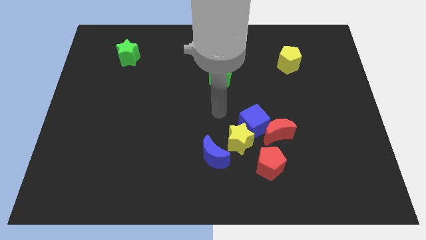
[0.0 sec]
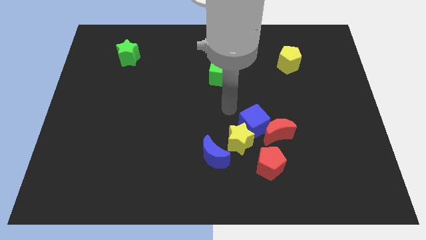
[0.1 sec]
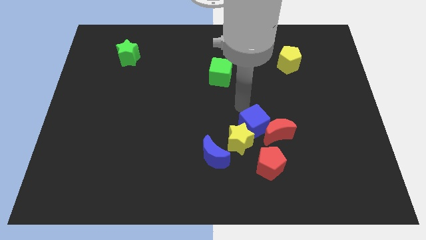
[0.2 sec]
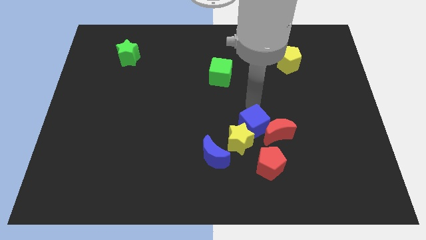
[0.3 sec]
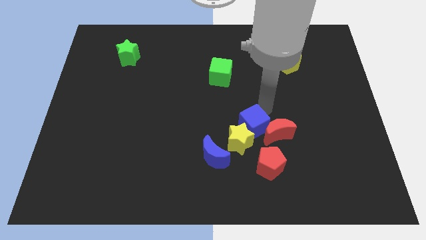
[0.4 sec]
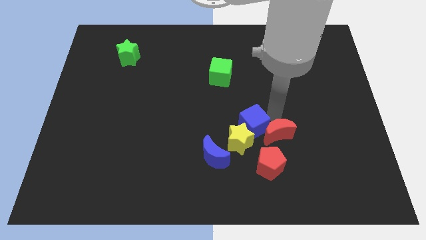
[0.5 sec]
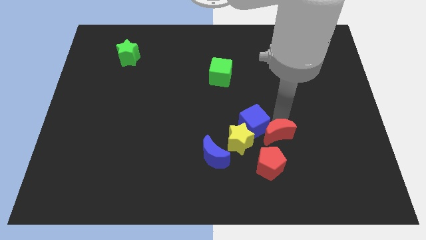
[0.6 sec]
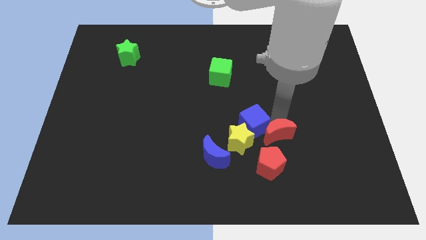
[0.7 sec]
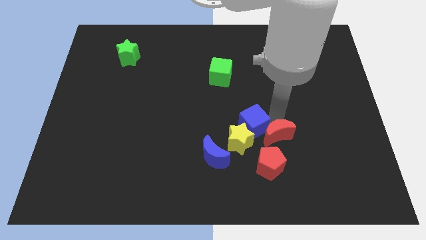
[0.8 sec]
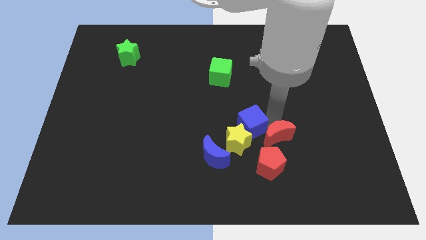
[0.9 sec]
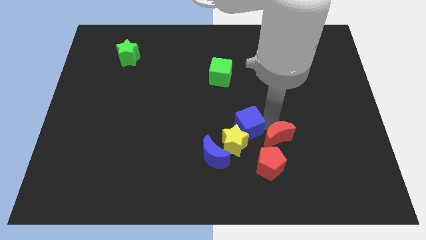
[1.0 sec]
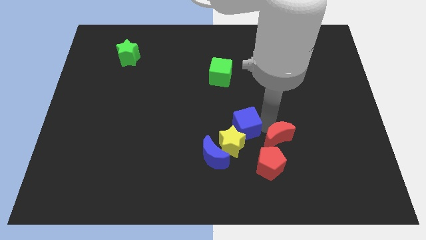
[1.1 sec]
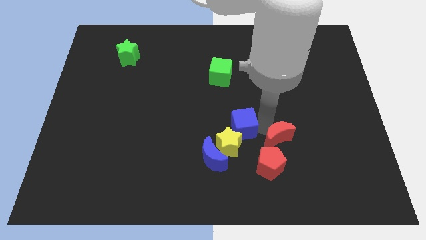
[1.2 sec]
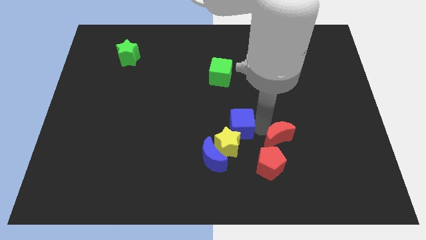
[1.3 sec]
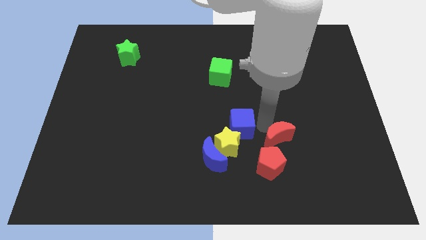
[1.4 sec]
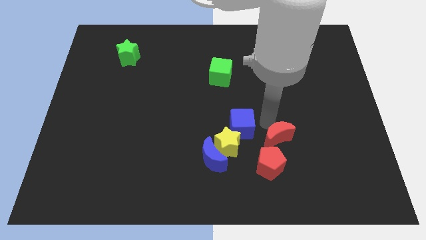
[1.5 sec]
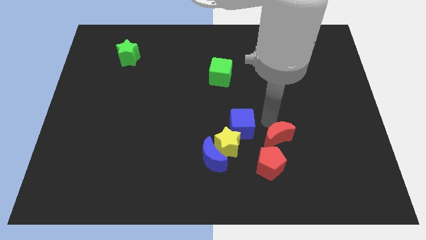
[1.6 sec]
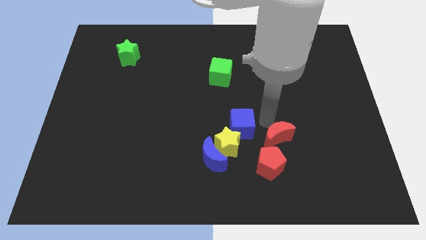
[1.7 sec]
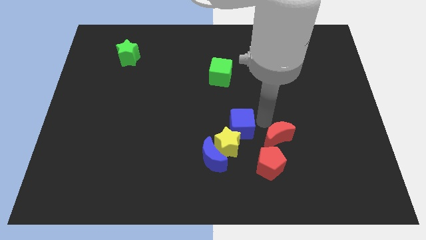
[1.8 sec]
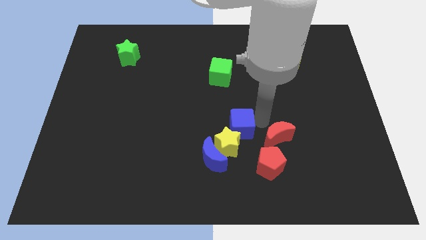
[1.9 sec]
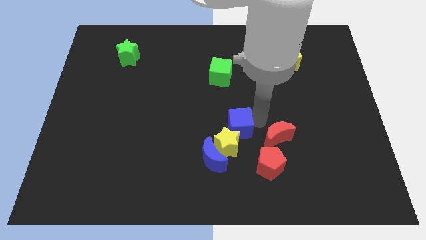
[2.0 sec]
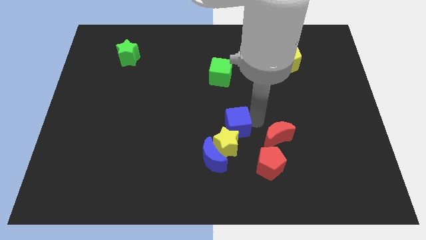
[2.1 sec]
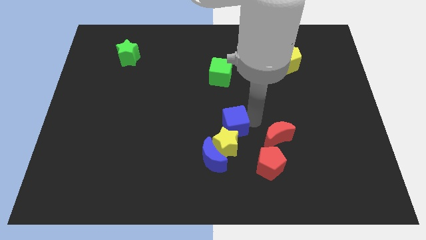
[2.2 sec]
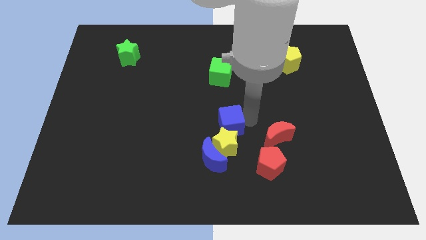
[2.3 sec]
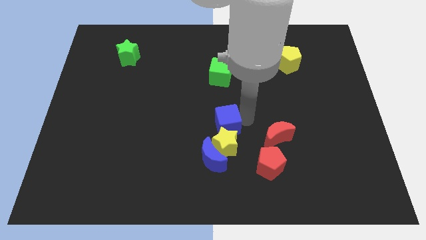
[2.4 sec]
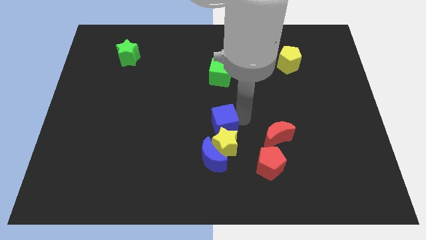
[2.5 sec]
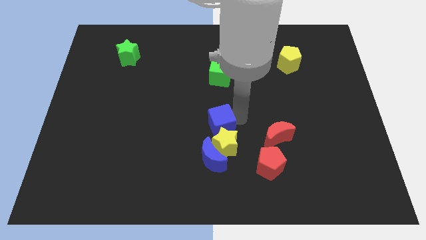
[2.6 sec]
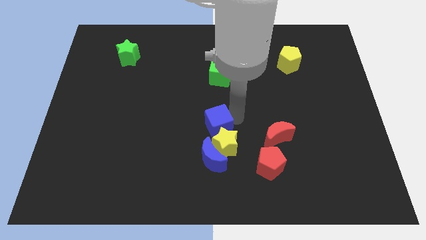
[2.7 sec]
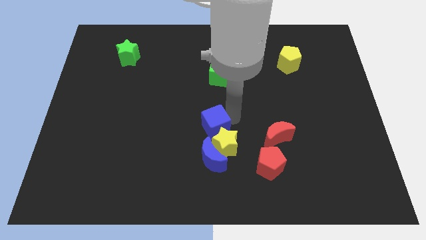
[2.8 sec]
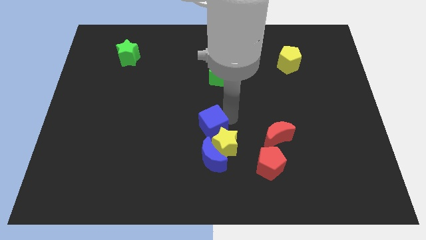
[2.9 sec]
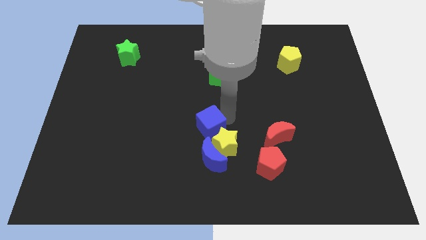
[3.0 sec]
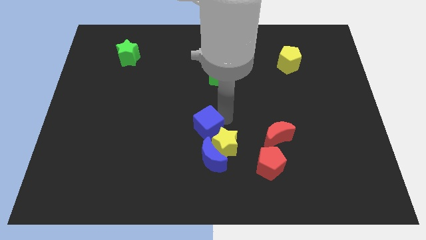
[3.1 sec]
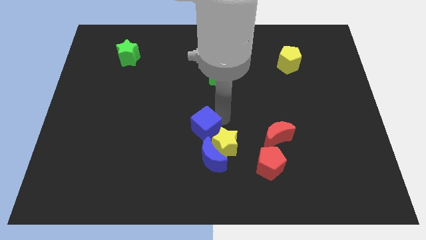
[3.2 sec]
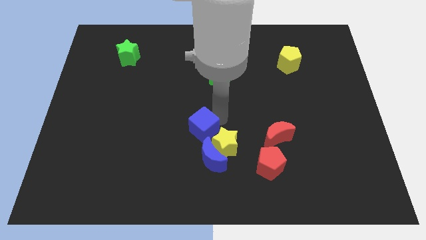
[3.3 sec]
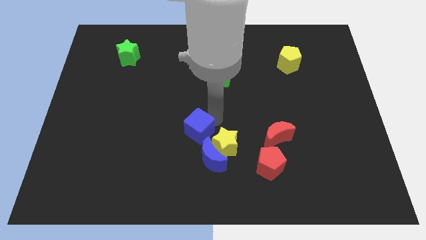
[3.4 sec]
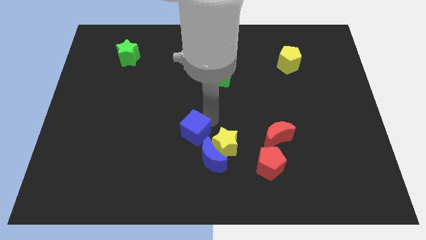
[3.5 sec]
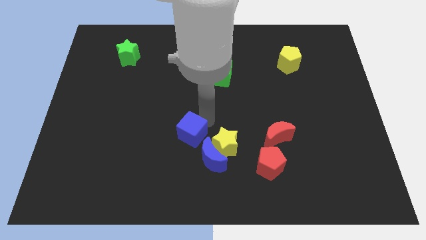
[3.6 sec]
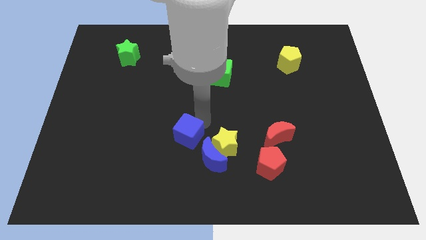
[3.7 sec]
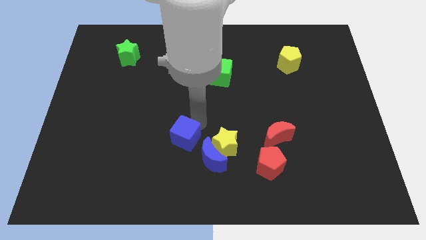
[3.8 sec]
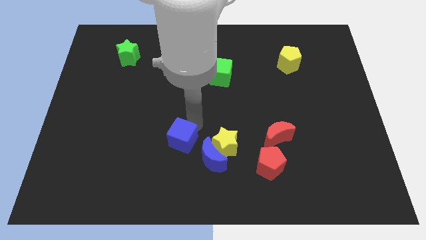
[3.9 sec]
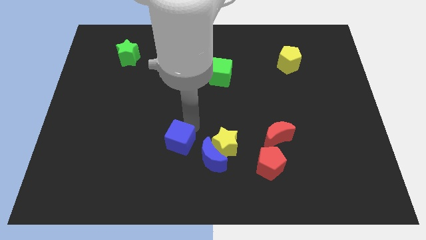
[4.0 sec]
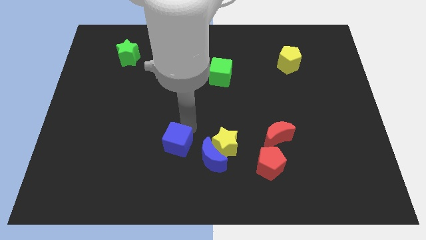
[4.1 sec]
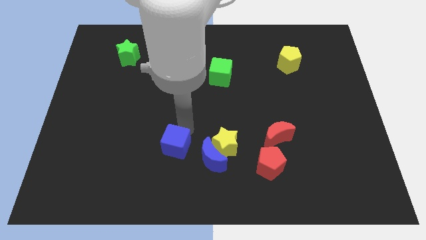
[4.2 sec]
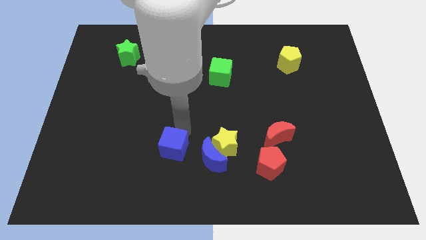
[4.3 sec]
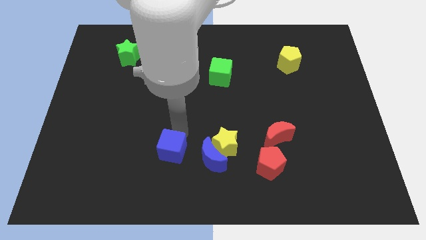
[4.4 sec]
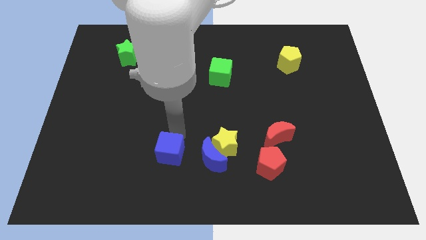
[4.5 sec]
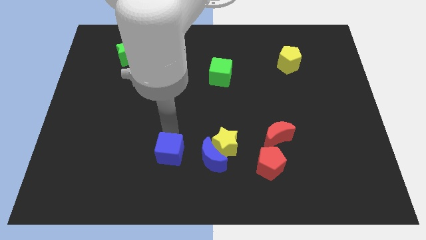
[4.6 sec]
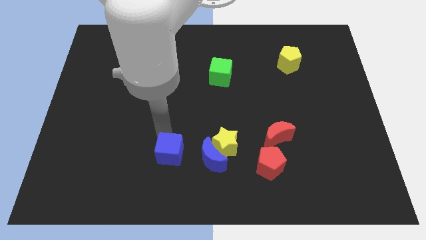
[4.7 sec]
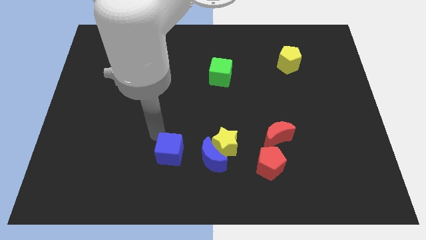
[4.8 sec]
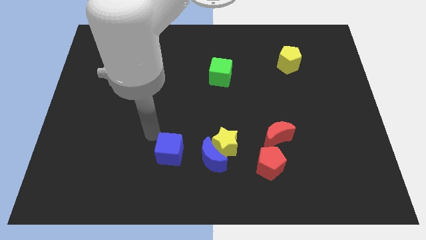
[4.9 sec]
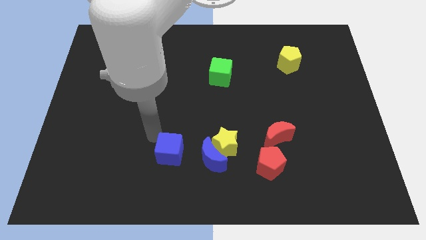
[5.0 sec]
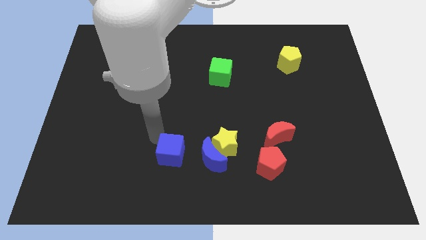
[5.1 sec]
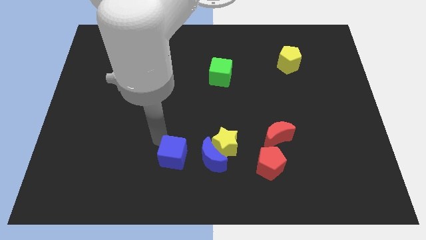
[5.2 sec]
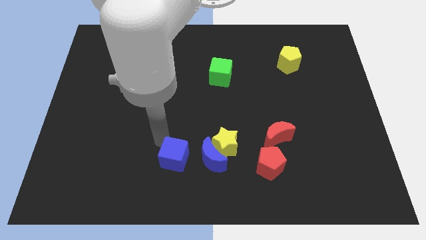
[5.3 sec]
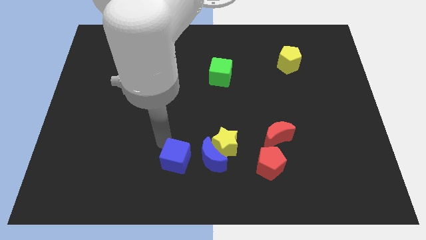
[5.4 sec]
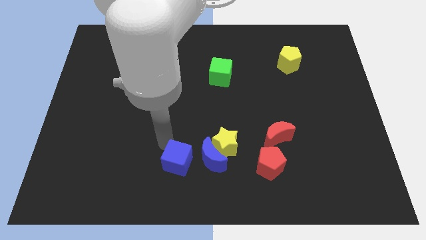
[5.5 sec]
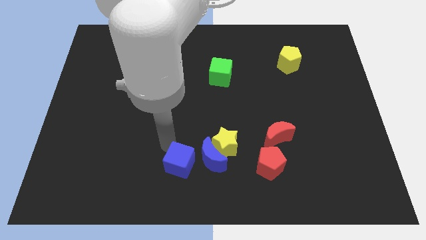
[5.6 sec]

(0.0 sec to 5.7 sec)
move the blue cube to the bottom left of the yellow star

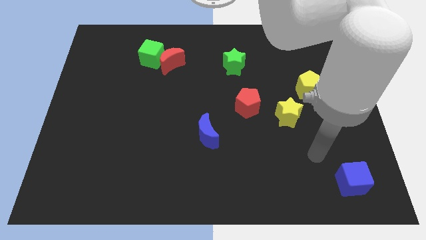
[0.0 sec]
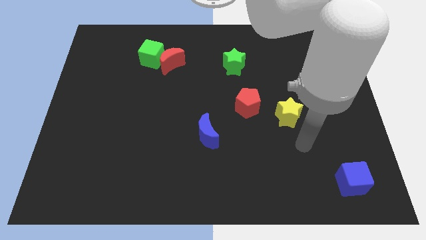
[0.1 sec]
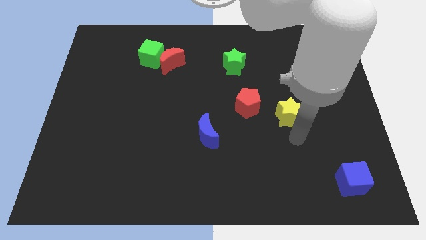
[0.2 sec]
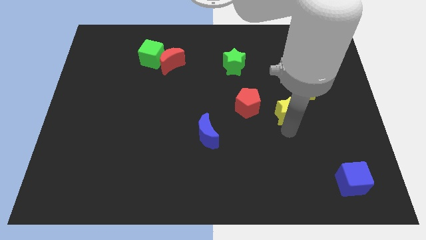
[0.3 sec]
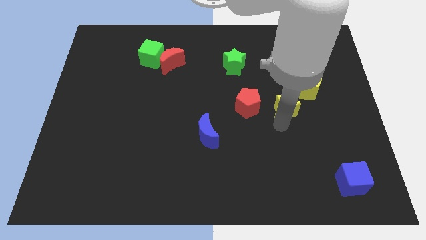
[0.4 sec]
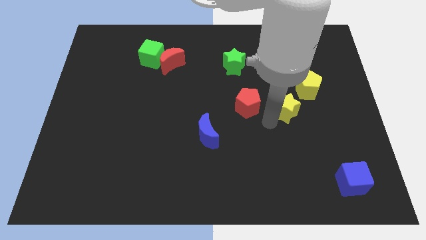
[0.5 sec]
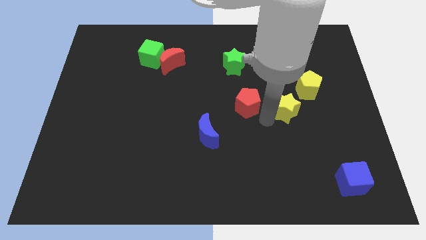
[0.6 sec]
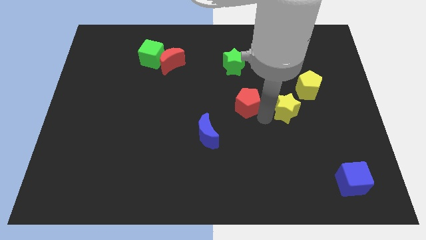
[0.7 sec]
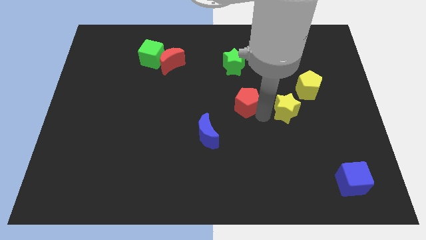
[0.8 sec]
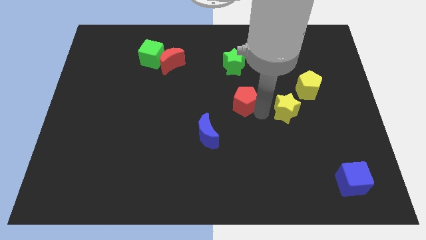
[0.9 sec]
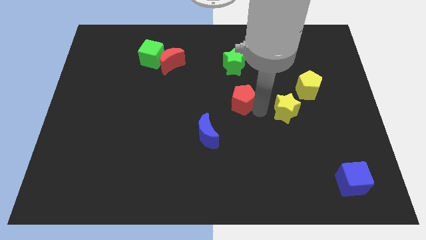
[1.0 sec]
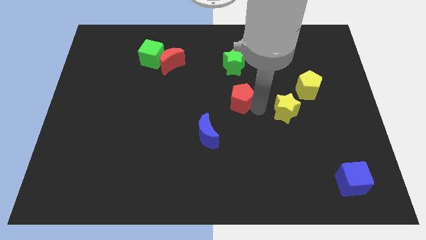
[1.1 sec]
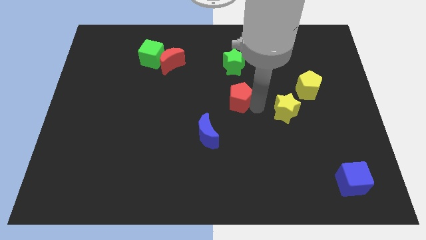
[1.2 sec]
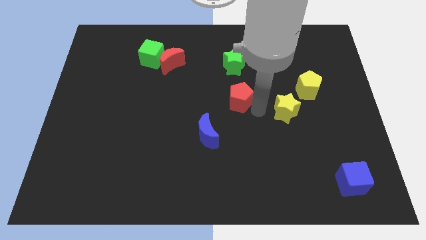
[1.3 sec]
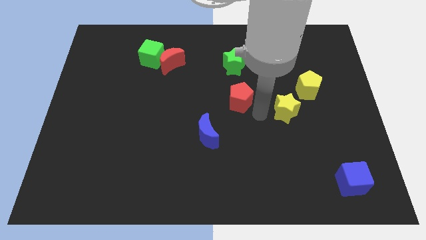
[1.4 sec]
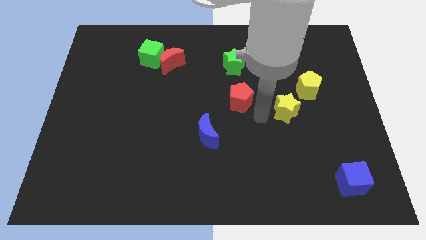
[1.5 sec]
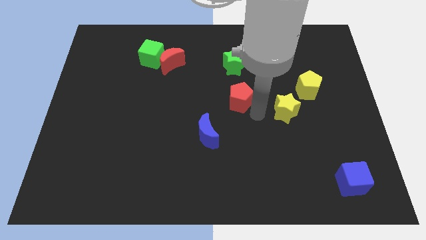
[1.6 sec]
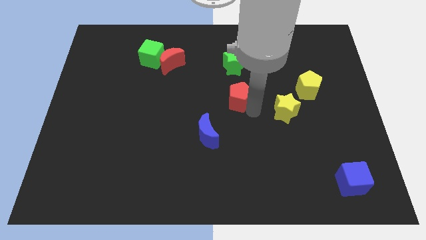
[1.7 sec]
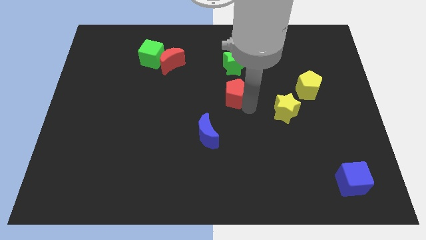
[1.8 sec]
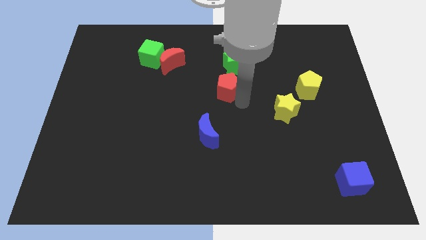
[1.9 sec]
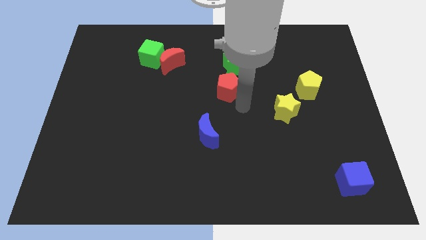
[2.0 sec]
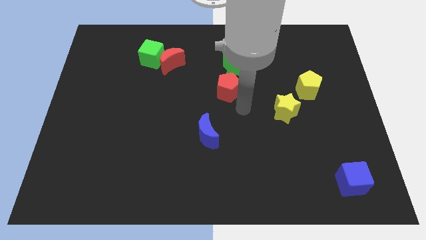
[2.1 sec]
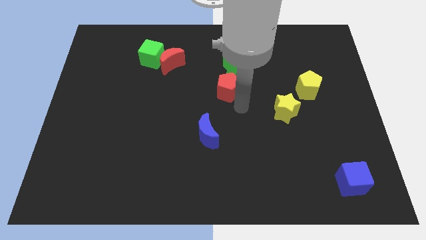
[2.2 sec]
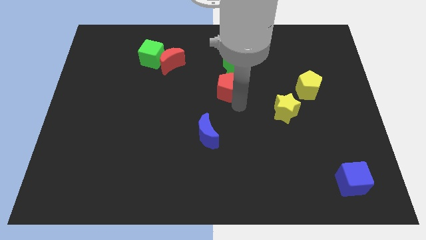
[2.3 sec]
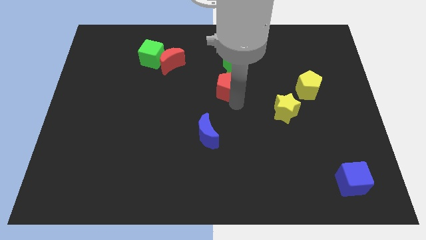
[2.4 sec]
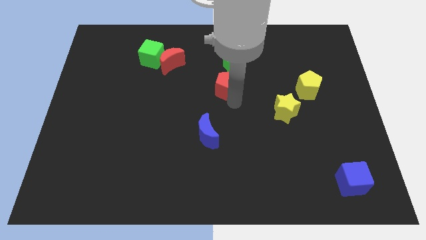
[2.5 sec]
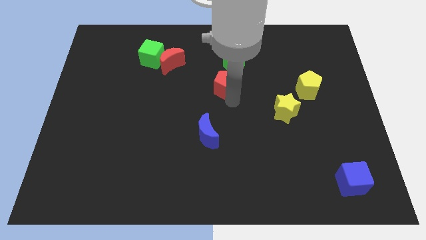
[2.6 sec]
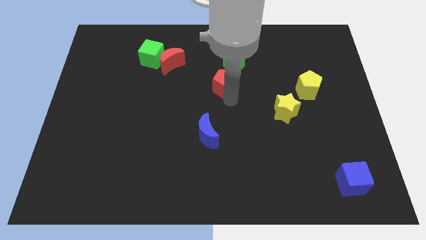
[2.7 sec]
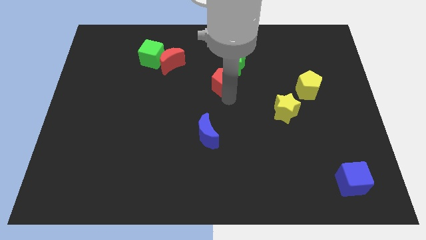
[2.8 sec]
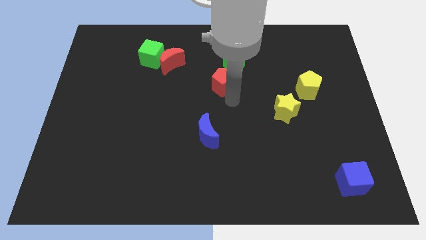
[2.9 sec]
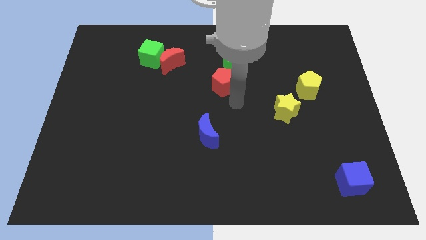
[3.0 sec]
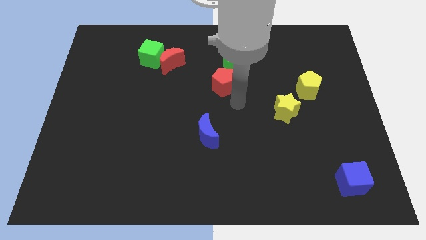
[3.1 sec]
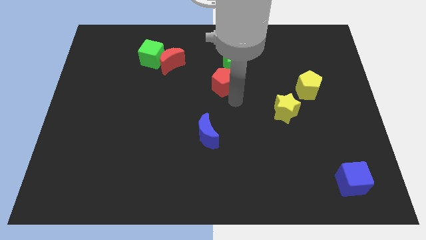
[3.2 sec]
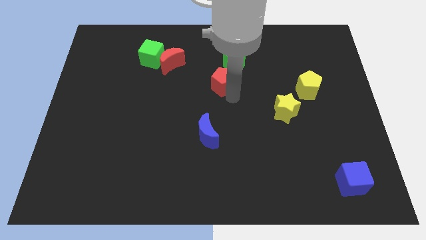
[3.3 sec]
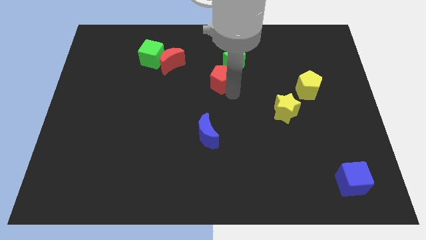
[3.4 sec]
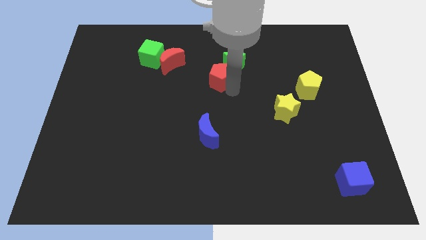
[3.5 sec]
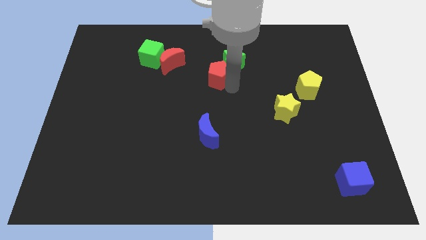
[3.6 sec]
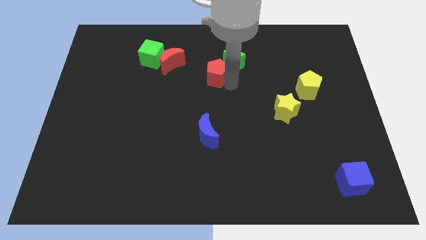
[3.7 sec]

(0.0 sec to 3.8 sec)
put the red pentagon to the left of the green star
